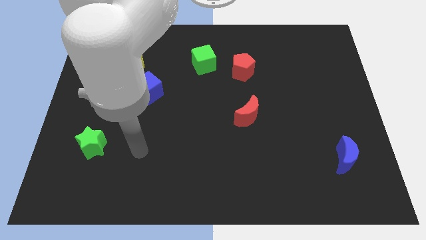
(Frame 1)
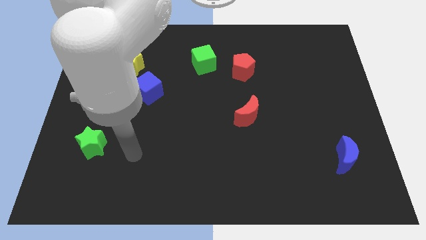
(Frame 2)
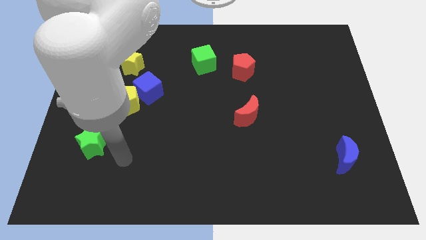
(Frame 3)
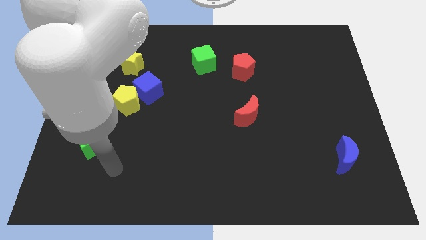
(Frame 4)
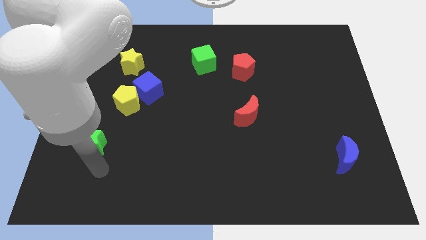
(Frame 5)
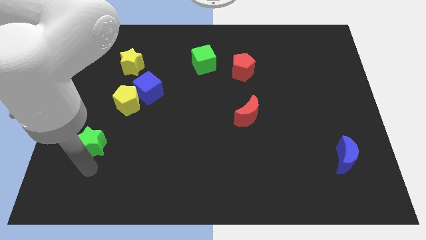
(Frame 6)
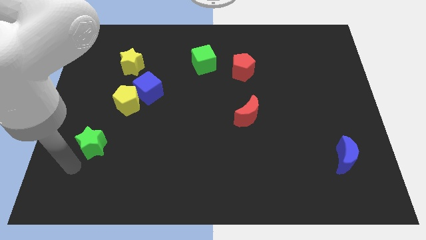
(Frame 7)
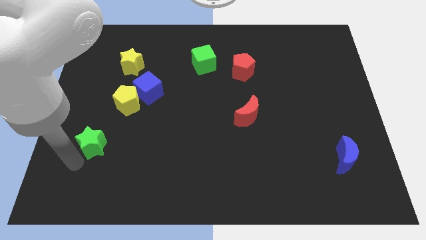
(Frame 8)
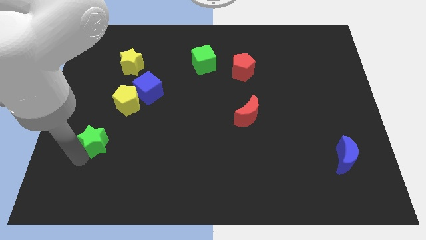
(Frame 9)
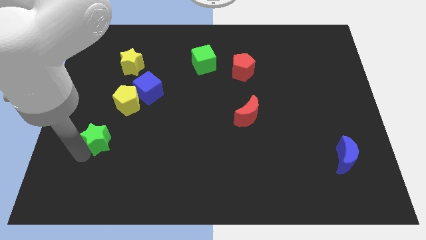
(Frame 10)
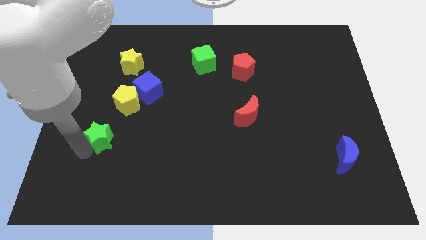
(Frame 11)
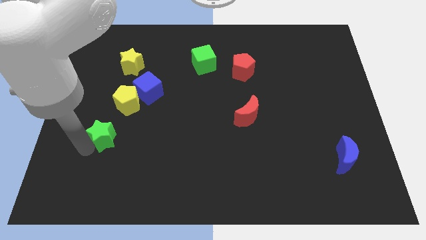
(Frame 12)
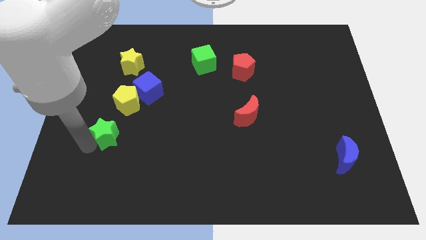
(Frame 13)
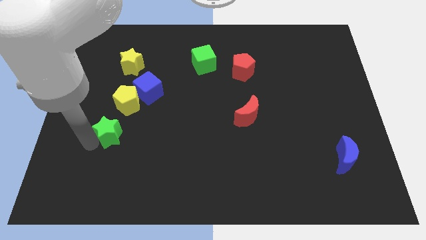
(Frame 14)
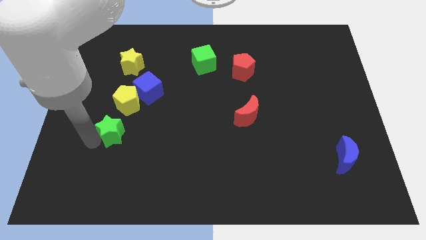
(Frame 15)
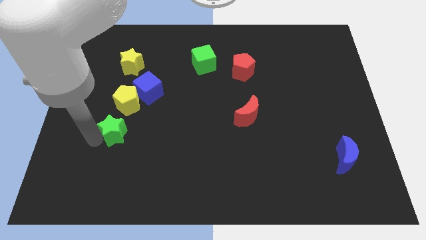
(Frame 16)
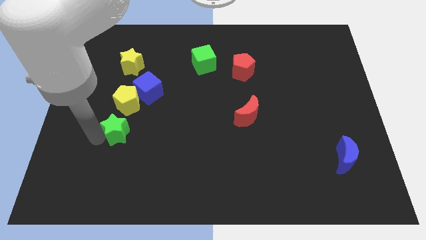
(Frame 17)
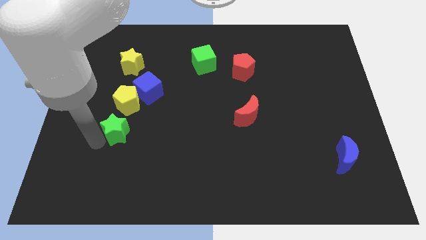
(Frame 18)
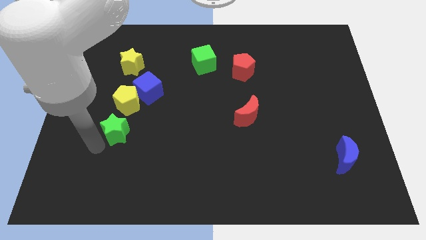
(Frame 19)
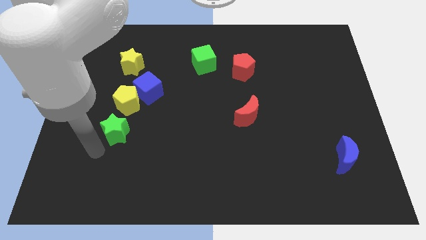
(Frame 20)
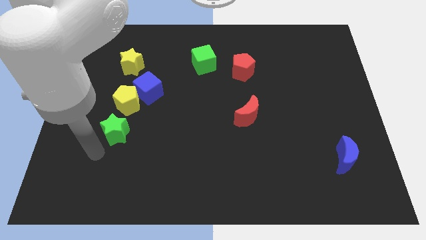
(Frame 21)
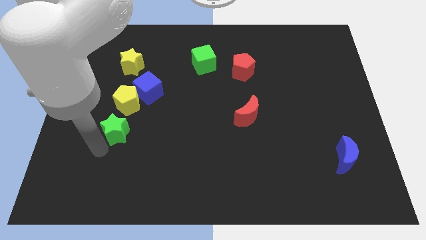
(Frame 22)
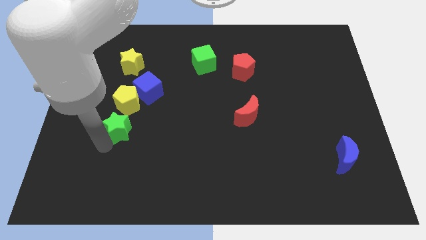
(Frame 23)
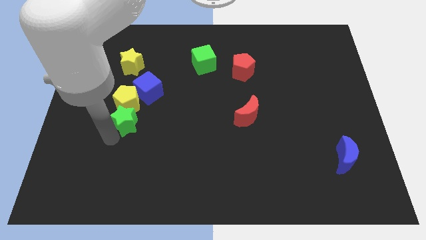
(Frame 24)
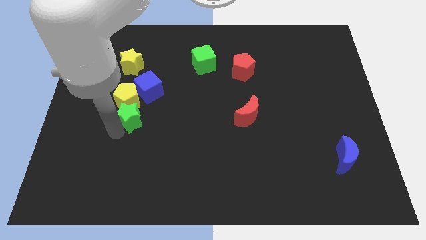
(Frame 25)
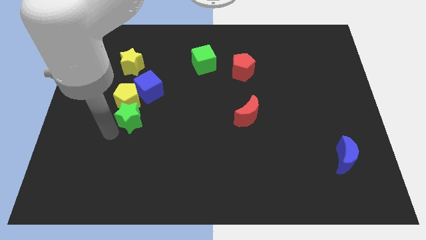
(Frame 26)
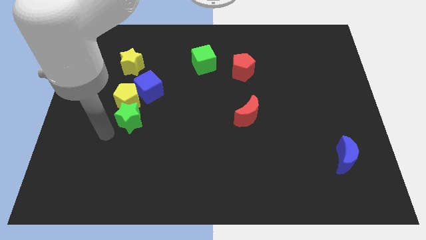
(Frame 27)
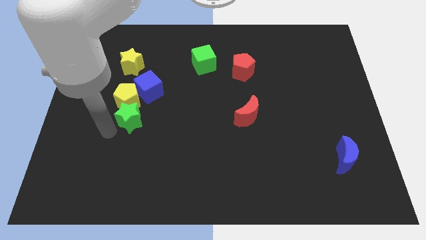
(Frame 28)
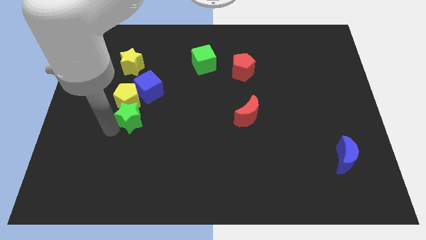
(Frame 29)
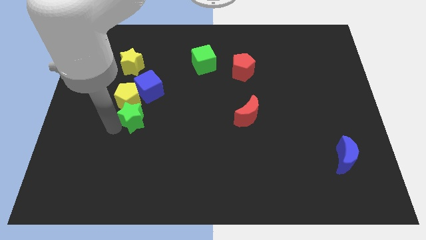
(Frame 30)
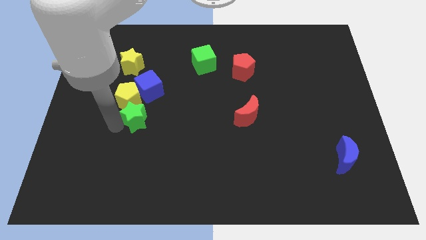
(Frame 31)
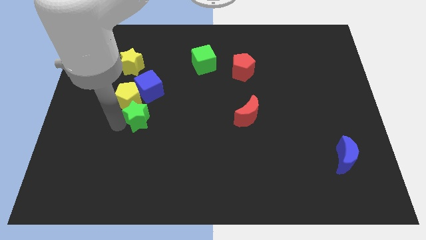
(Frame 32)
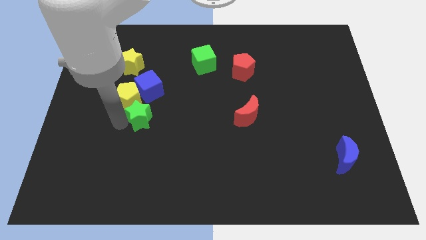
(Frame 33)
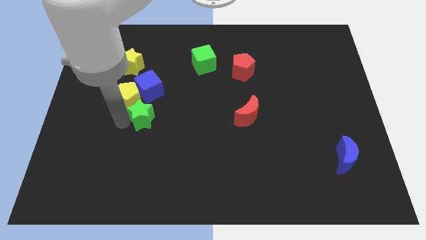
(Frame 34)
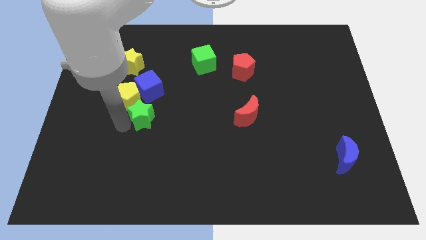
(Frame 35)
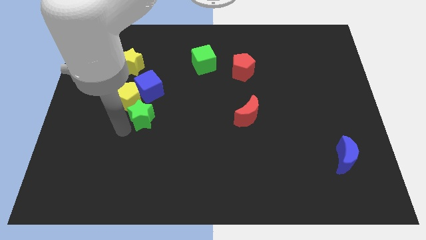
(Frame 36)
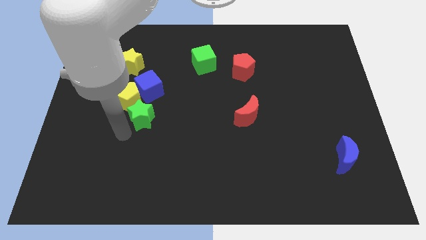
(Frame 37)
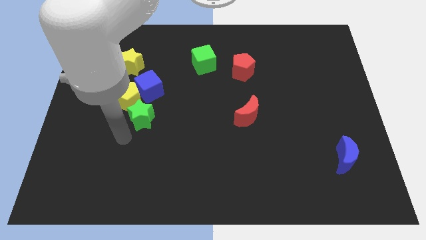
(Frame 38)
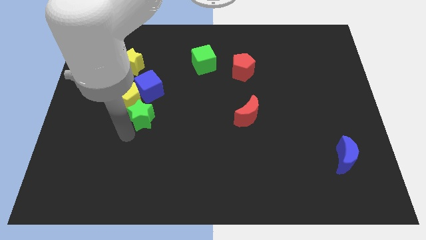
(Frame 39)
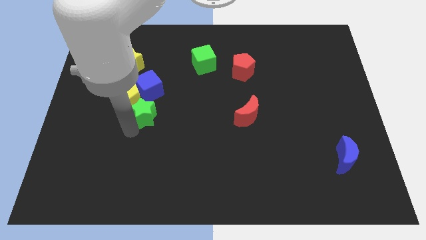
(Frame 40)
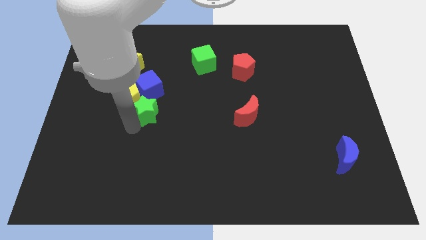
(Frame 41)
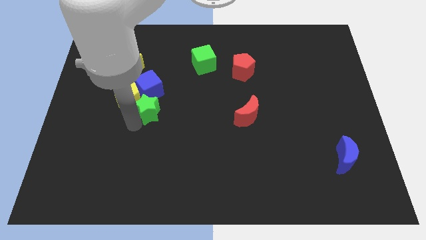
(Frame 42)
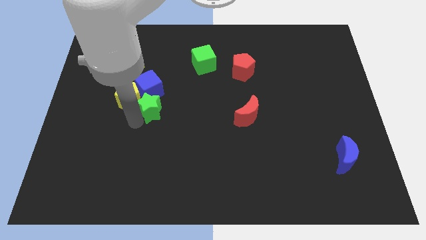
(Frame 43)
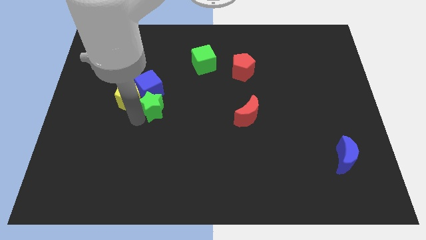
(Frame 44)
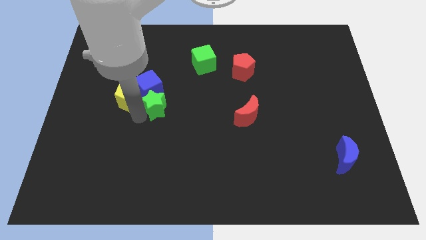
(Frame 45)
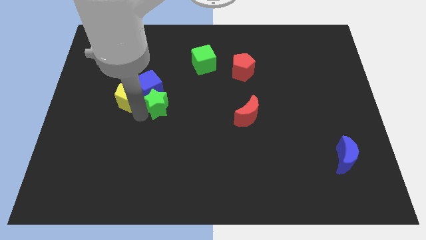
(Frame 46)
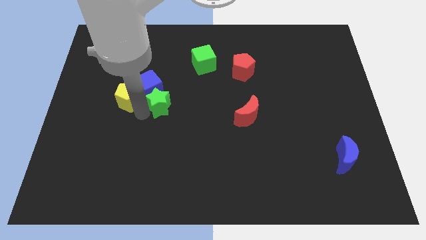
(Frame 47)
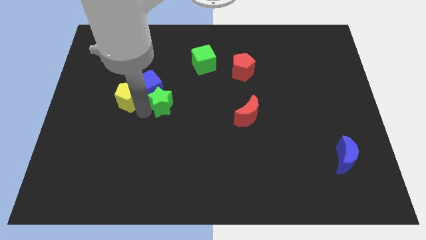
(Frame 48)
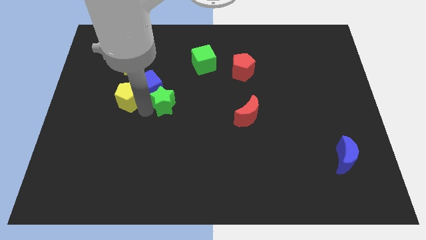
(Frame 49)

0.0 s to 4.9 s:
move the green star right of the blue cube

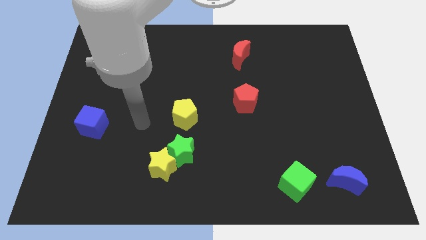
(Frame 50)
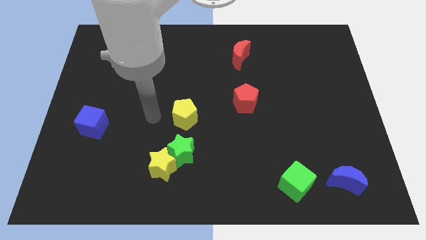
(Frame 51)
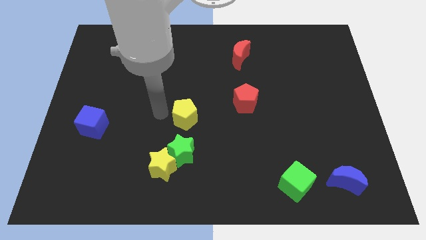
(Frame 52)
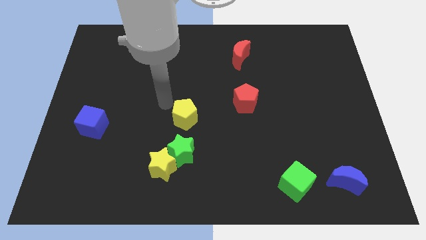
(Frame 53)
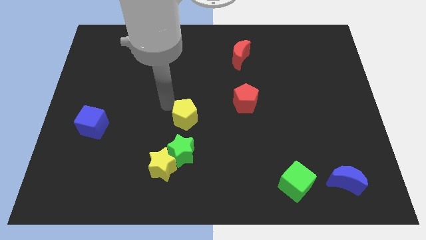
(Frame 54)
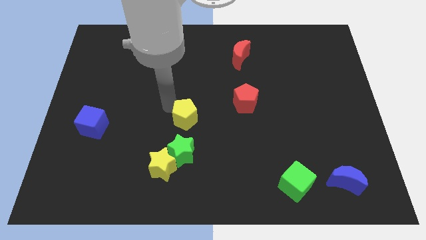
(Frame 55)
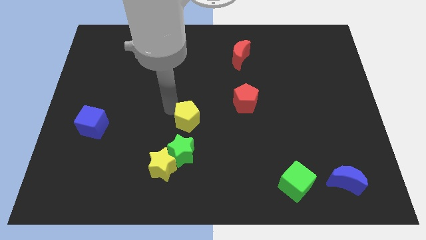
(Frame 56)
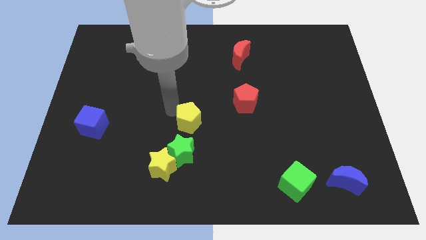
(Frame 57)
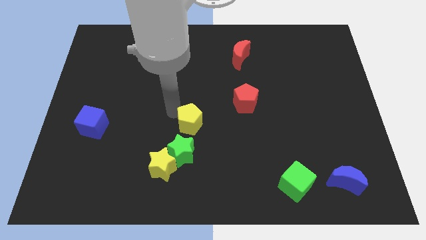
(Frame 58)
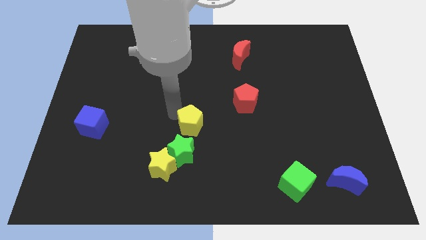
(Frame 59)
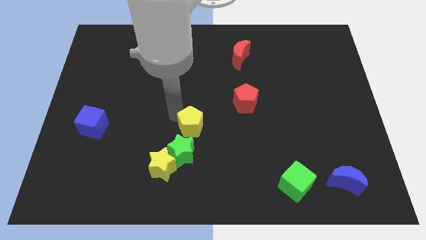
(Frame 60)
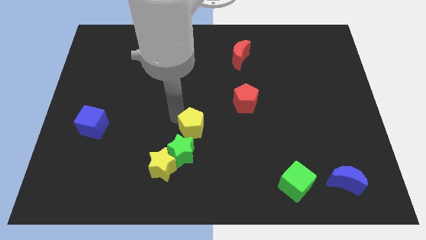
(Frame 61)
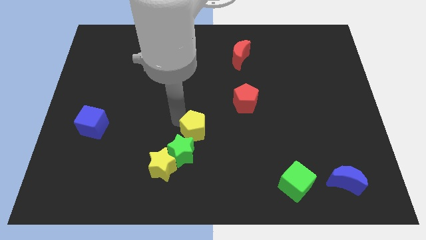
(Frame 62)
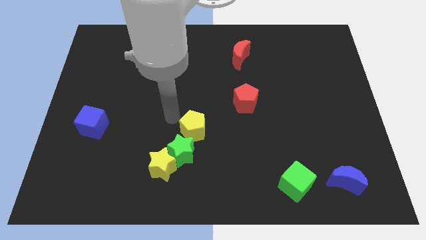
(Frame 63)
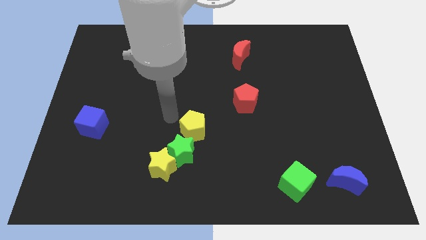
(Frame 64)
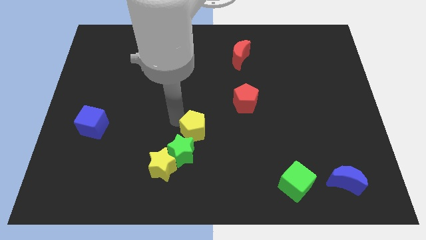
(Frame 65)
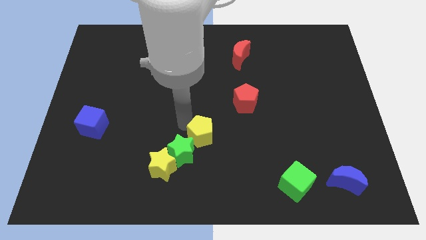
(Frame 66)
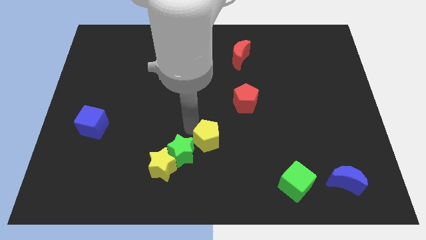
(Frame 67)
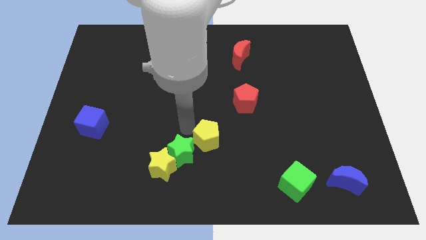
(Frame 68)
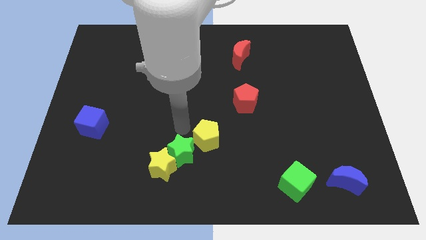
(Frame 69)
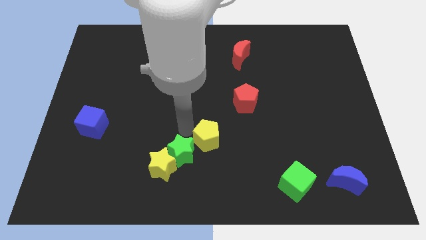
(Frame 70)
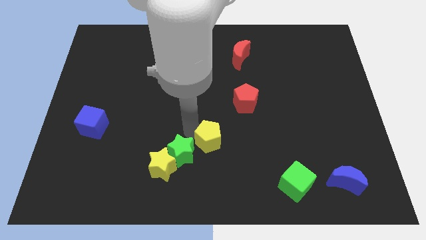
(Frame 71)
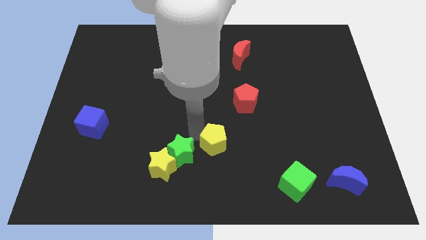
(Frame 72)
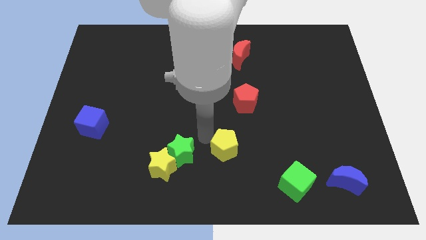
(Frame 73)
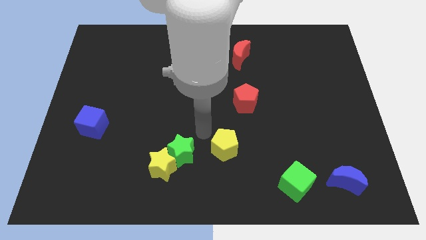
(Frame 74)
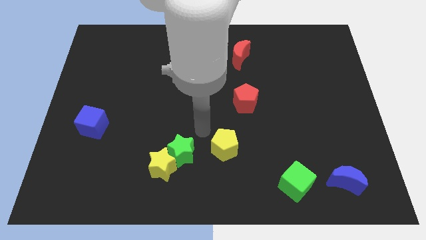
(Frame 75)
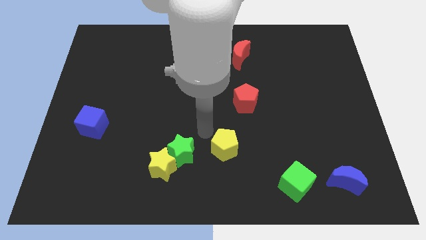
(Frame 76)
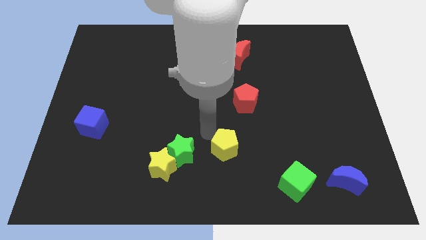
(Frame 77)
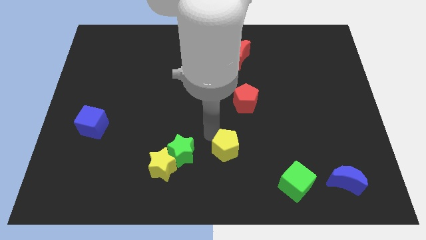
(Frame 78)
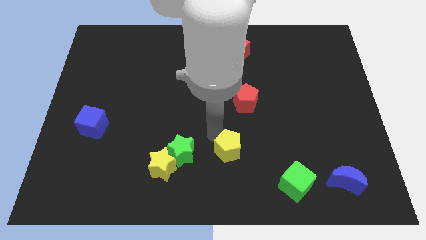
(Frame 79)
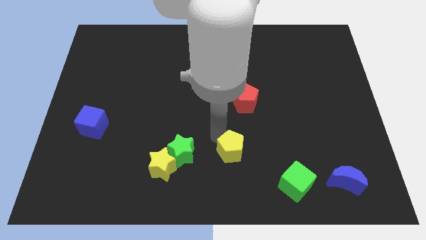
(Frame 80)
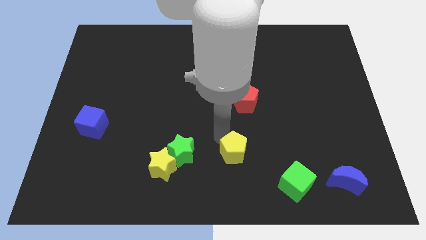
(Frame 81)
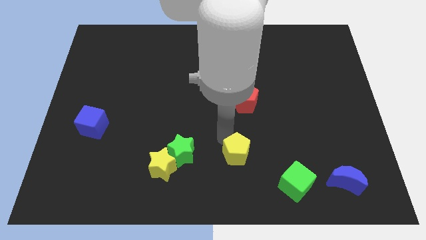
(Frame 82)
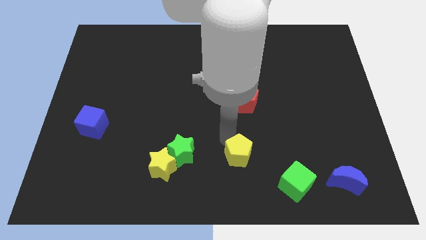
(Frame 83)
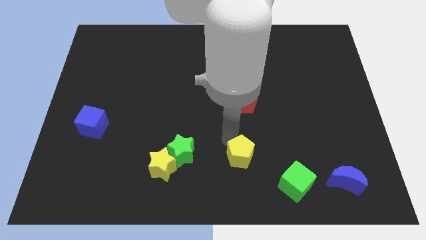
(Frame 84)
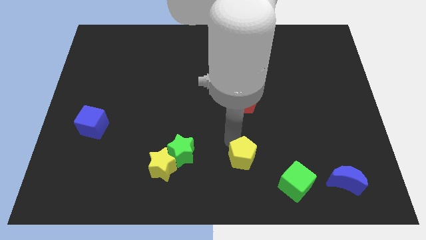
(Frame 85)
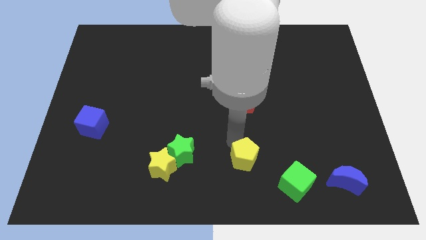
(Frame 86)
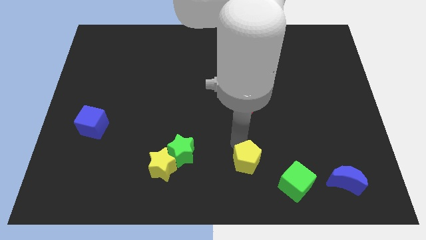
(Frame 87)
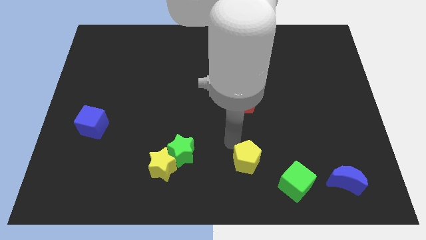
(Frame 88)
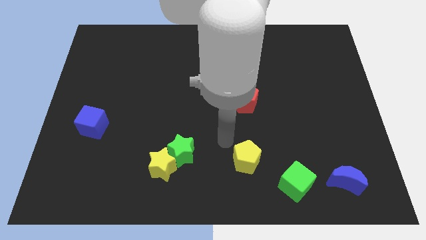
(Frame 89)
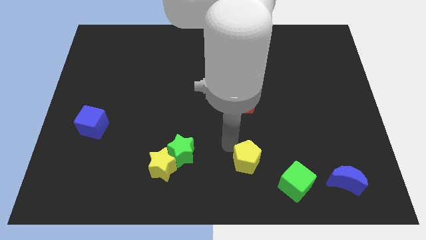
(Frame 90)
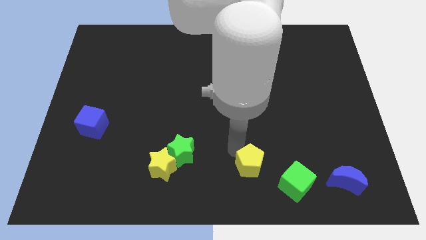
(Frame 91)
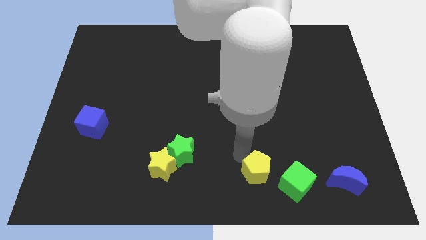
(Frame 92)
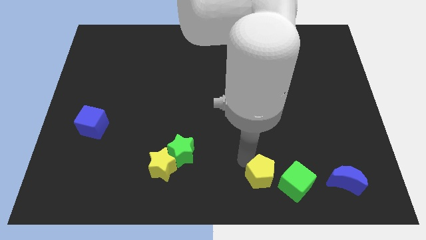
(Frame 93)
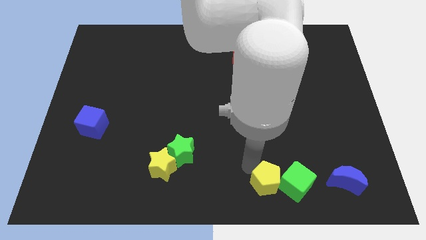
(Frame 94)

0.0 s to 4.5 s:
push the yellow pentagon to the left of the blue moon
